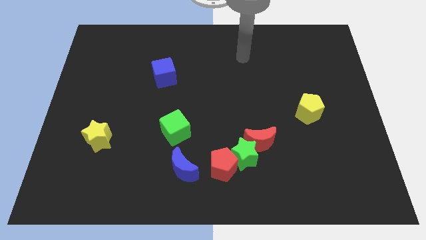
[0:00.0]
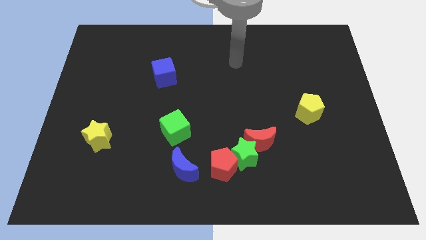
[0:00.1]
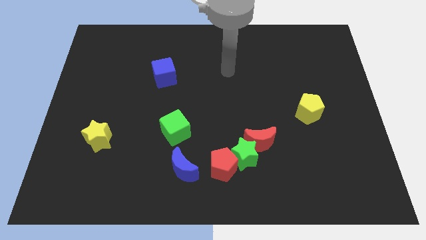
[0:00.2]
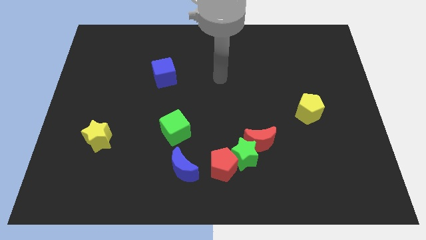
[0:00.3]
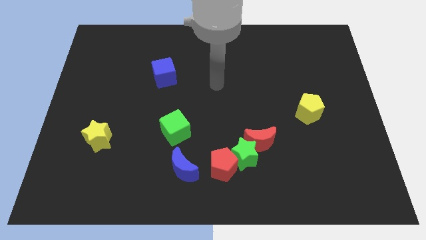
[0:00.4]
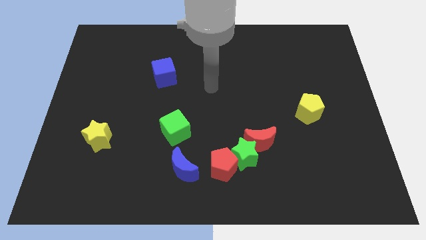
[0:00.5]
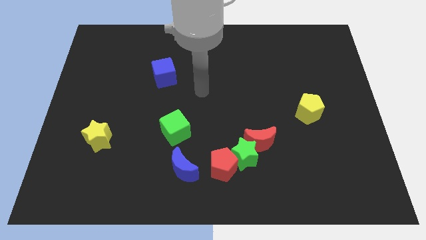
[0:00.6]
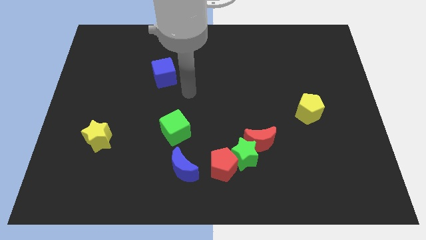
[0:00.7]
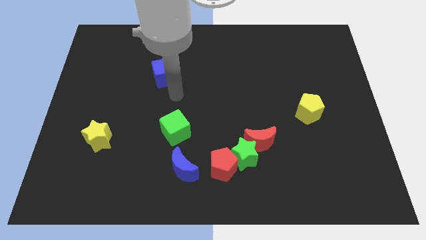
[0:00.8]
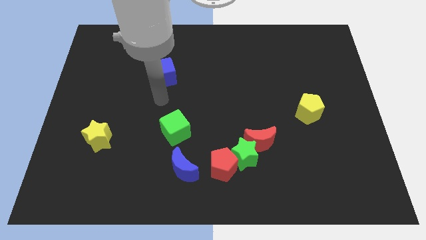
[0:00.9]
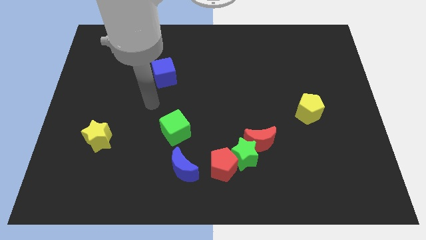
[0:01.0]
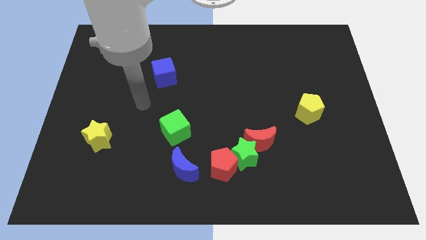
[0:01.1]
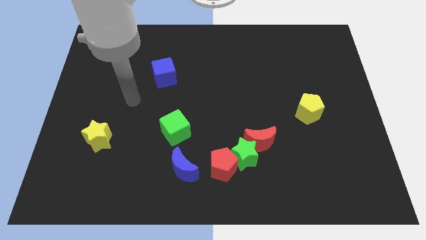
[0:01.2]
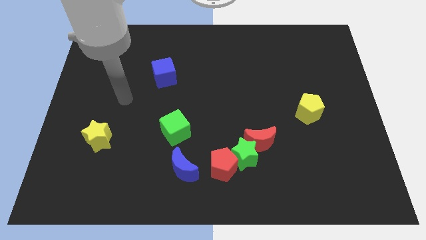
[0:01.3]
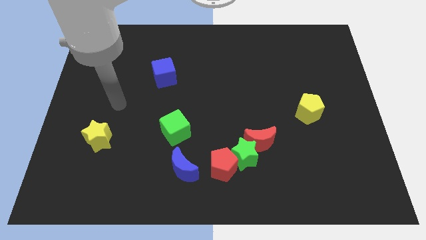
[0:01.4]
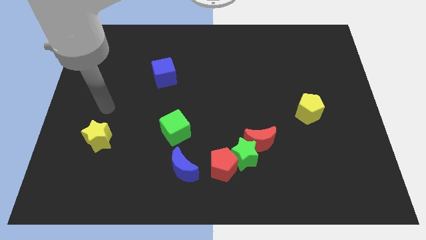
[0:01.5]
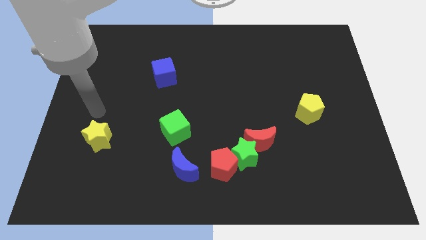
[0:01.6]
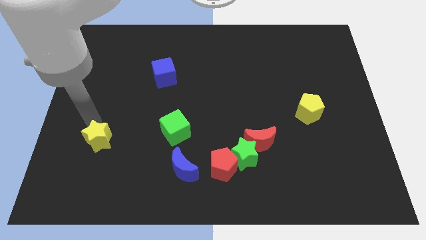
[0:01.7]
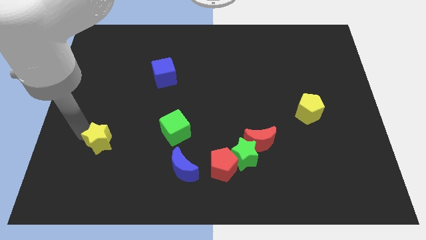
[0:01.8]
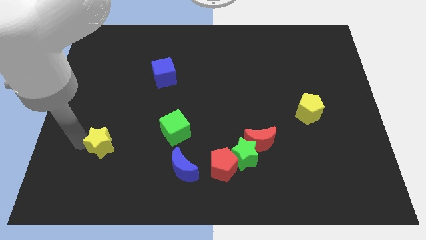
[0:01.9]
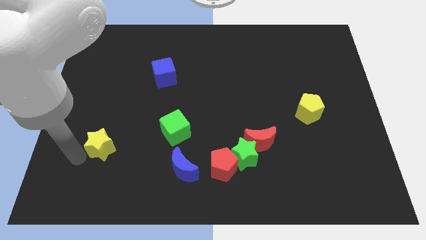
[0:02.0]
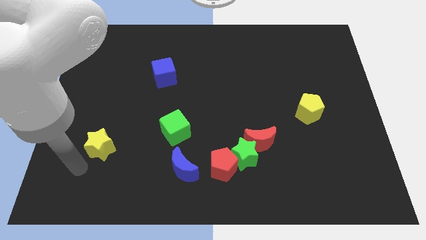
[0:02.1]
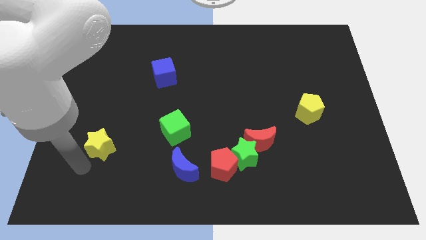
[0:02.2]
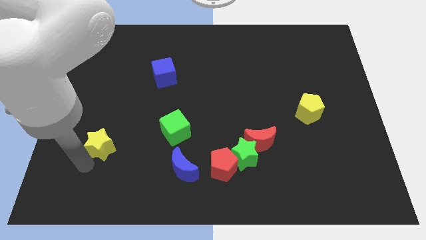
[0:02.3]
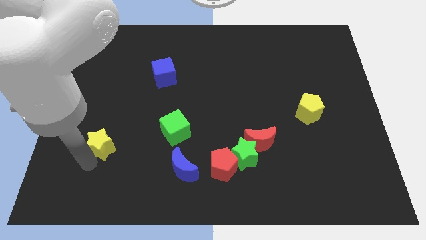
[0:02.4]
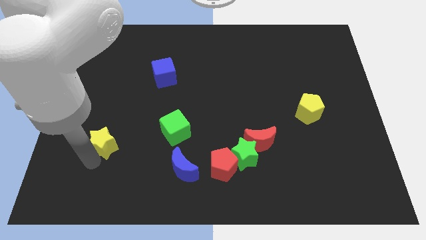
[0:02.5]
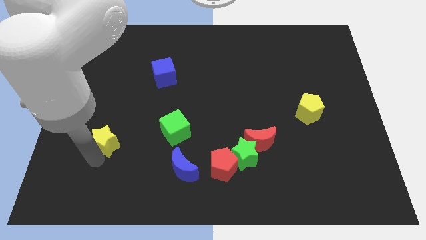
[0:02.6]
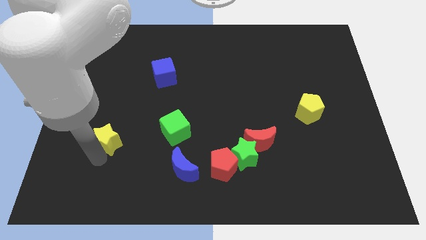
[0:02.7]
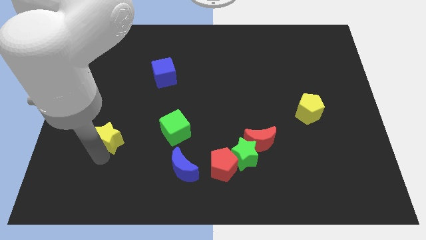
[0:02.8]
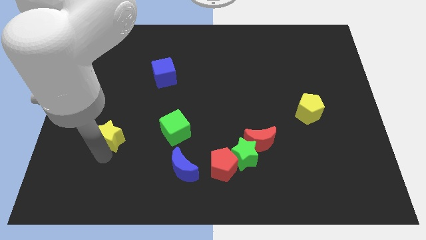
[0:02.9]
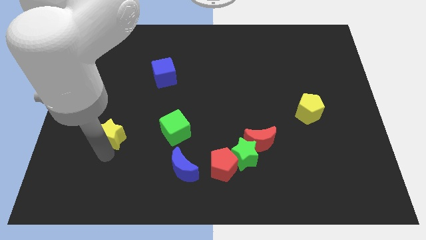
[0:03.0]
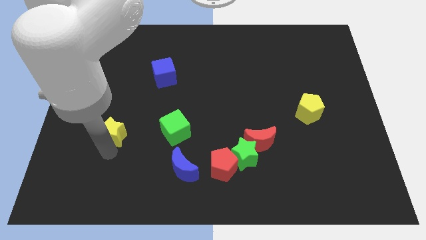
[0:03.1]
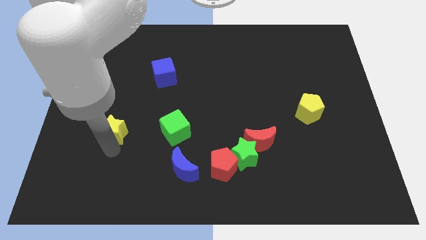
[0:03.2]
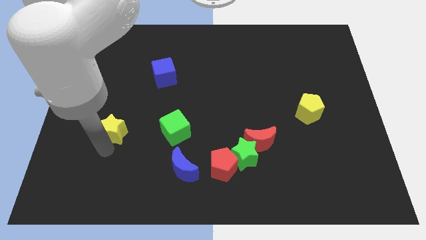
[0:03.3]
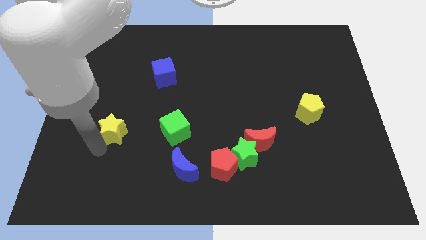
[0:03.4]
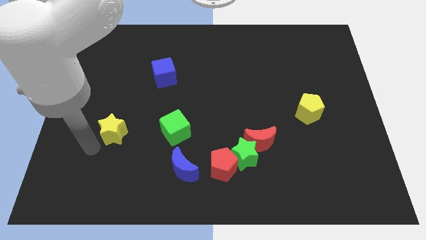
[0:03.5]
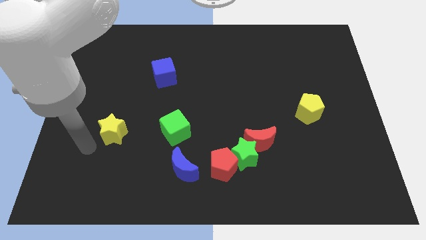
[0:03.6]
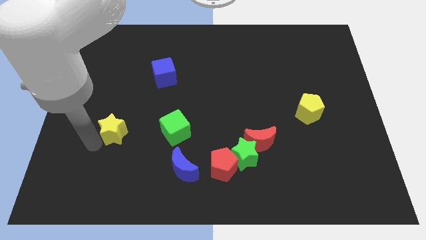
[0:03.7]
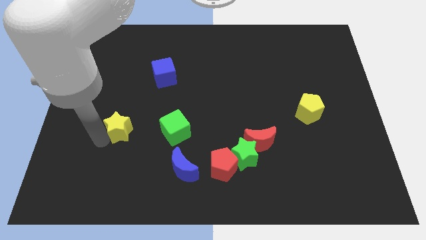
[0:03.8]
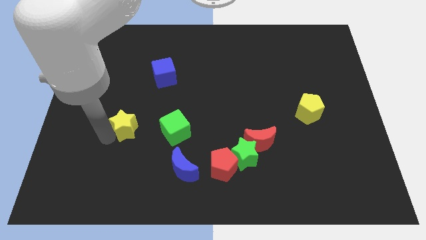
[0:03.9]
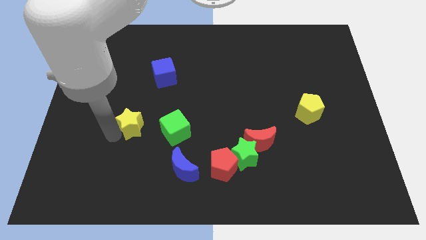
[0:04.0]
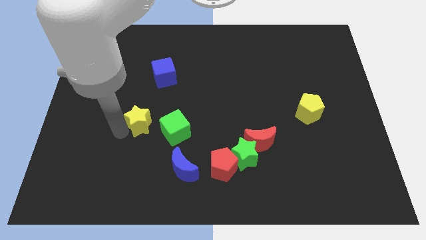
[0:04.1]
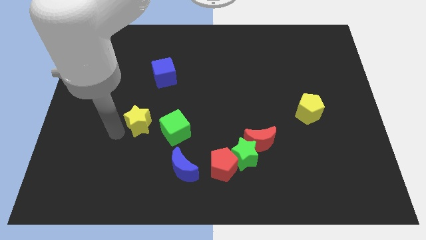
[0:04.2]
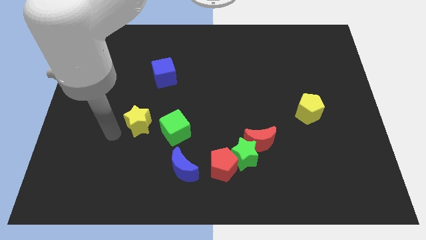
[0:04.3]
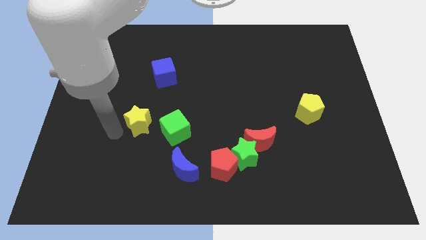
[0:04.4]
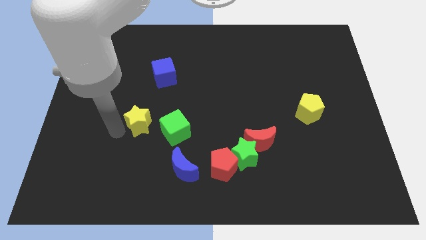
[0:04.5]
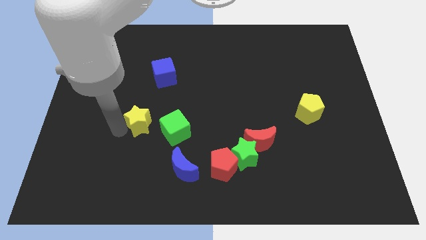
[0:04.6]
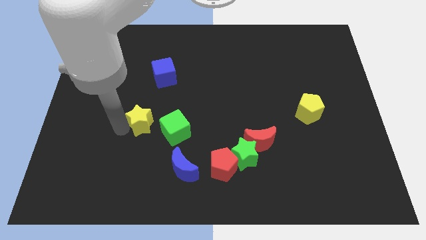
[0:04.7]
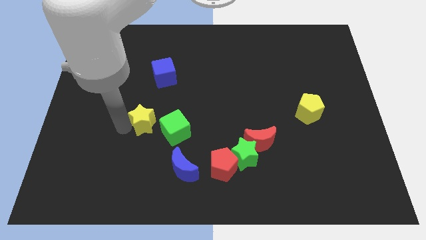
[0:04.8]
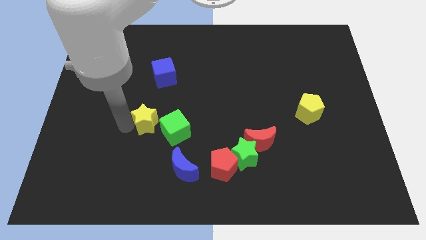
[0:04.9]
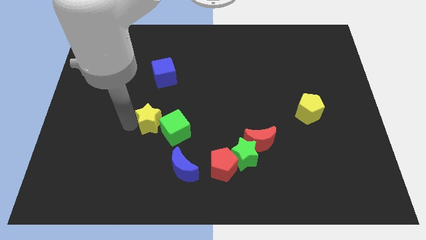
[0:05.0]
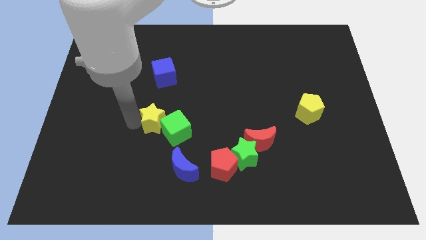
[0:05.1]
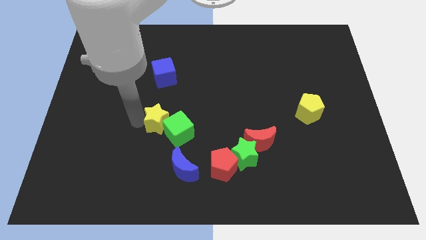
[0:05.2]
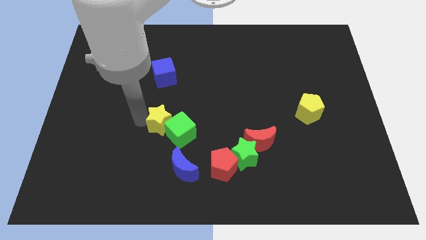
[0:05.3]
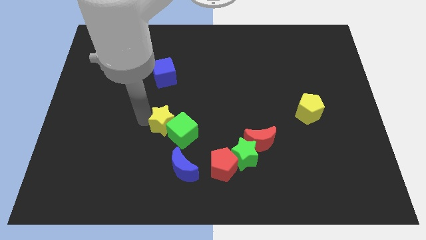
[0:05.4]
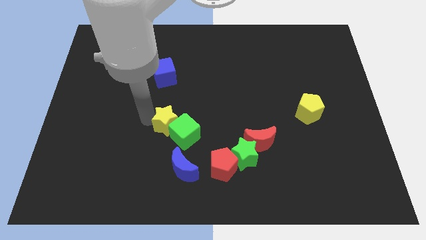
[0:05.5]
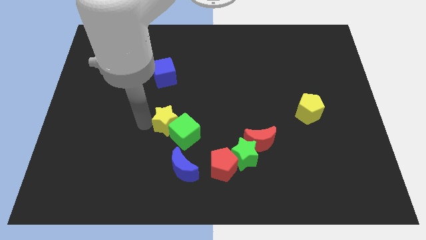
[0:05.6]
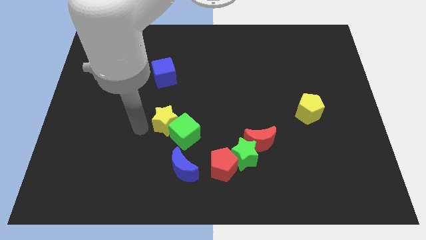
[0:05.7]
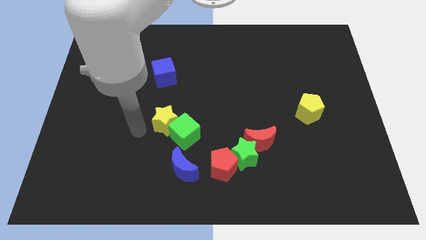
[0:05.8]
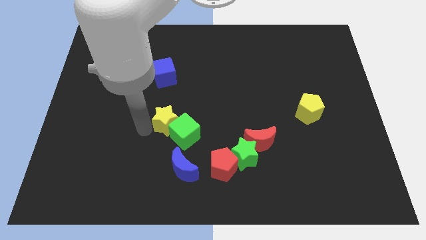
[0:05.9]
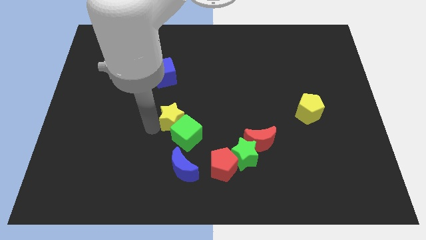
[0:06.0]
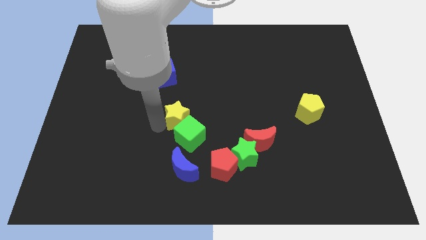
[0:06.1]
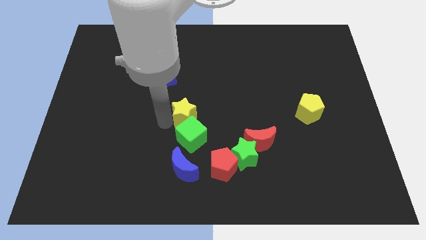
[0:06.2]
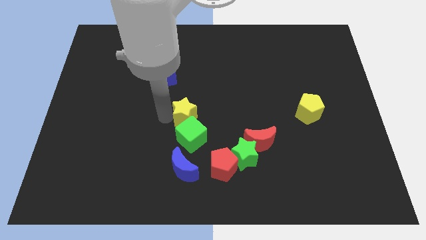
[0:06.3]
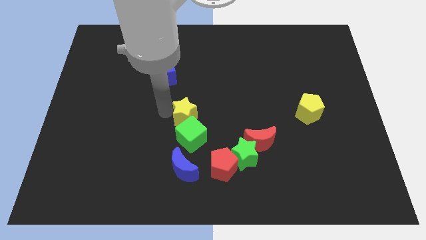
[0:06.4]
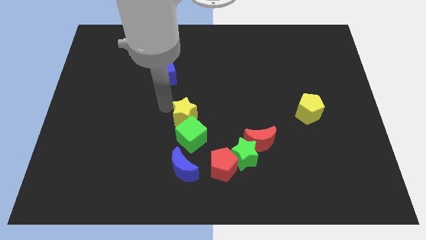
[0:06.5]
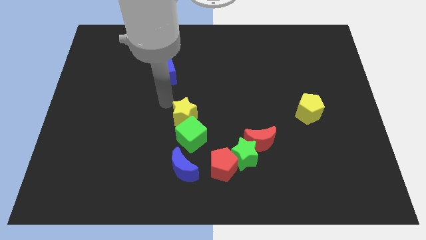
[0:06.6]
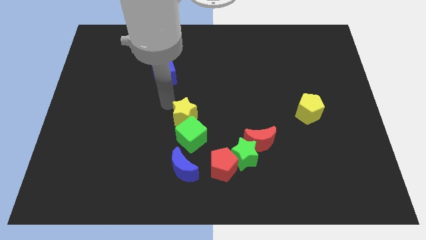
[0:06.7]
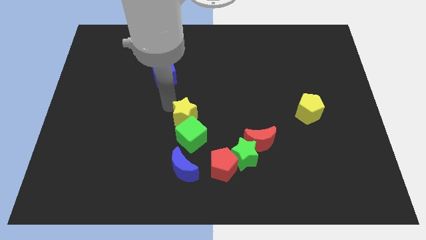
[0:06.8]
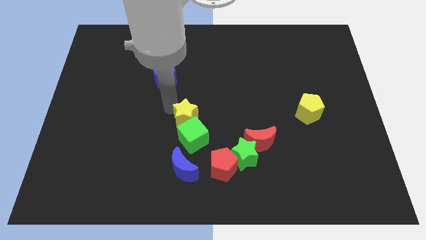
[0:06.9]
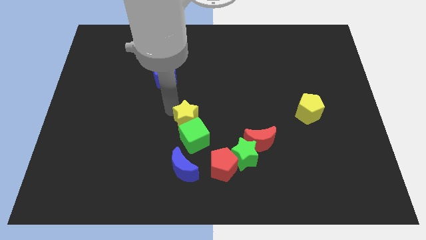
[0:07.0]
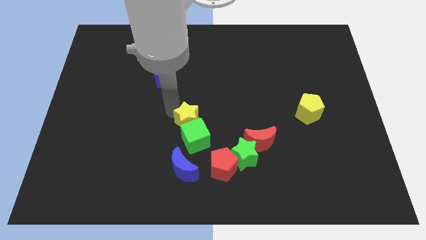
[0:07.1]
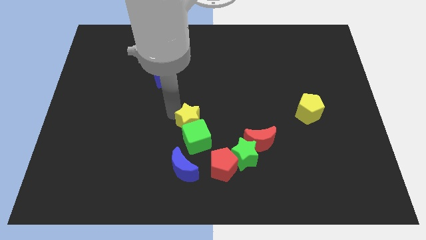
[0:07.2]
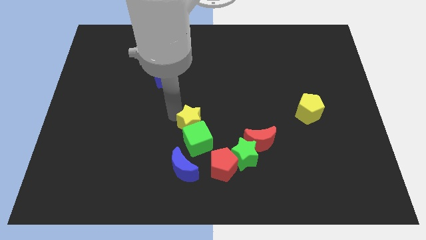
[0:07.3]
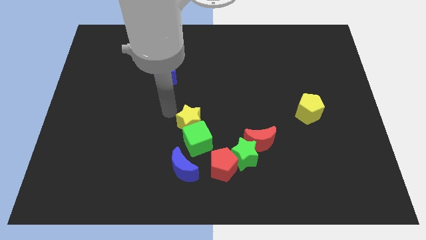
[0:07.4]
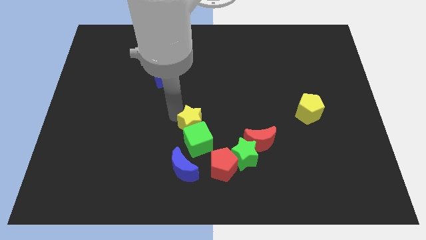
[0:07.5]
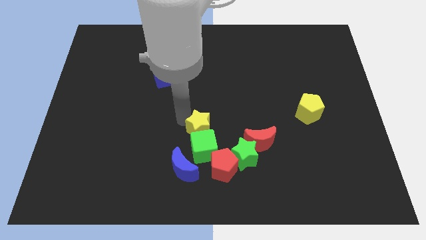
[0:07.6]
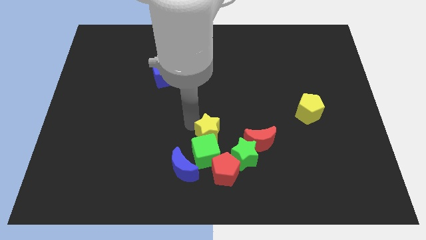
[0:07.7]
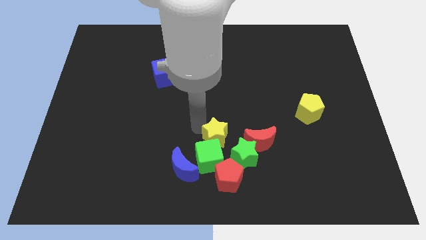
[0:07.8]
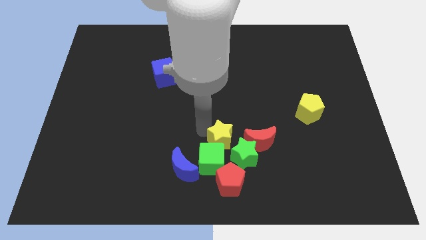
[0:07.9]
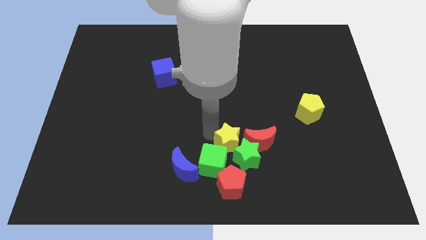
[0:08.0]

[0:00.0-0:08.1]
slide the yellow star towards the green star

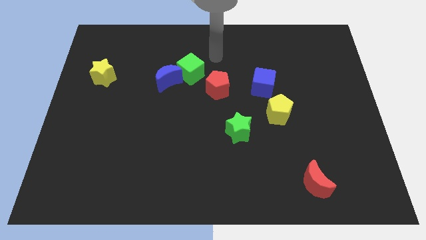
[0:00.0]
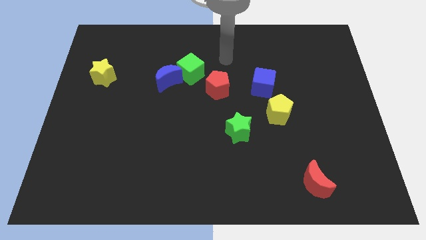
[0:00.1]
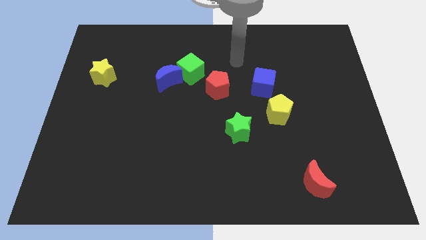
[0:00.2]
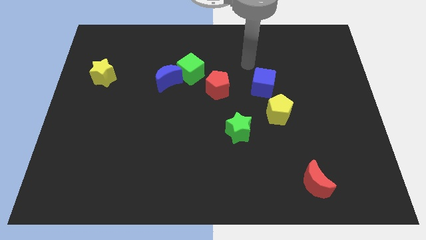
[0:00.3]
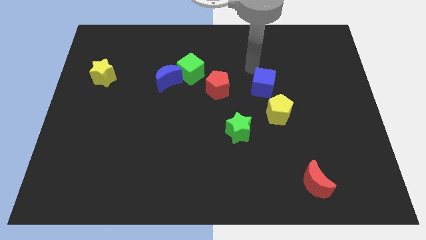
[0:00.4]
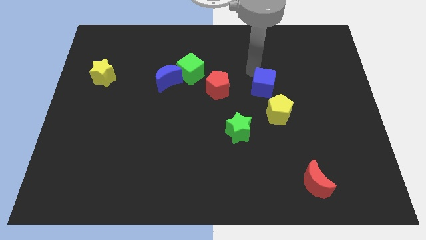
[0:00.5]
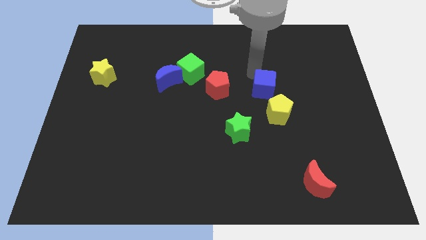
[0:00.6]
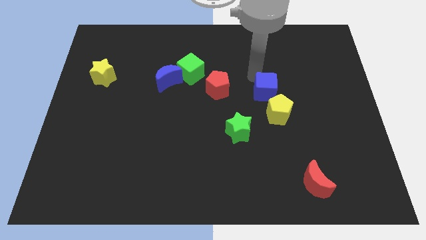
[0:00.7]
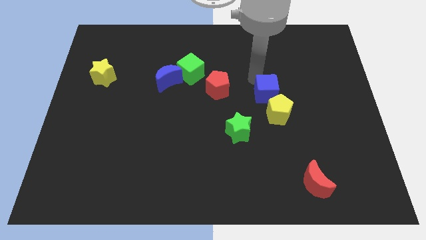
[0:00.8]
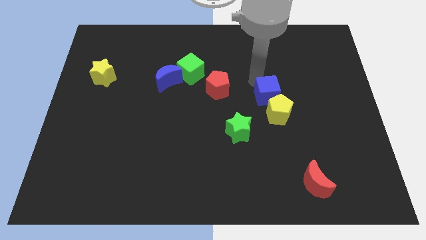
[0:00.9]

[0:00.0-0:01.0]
push the blue cube next to the yellow pentagon
